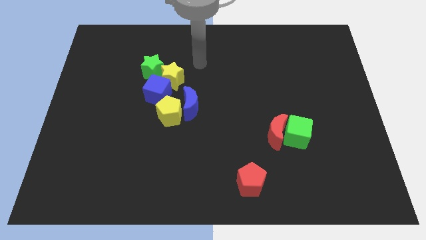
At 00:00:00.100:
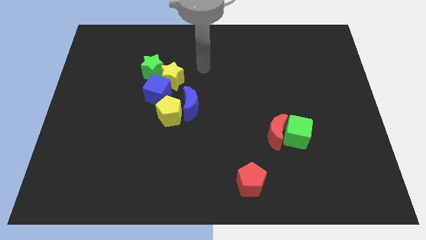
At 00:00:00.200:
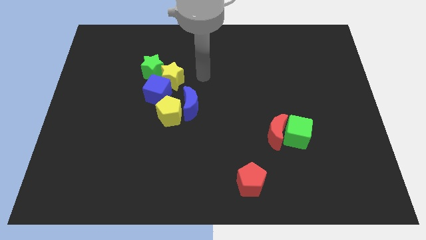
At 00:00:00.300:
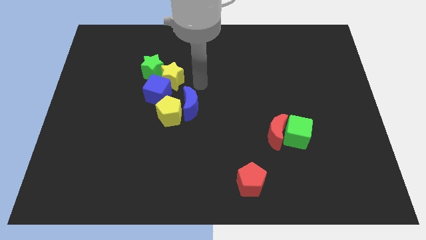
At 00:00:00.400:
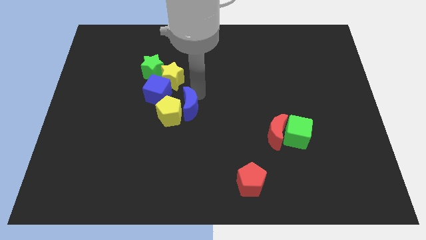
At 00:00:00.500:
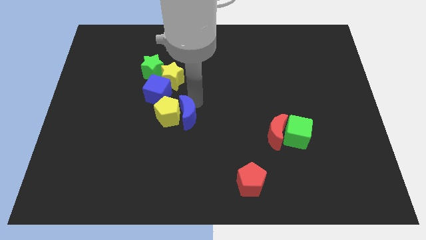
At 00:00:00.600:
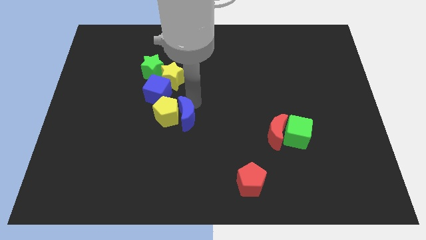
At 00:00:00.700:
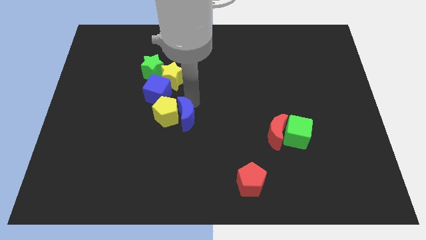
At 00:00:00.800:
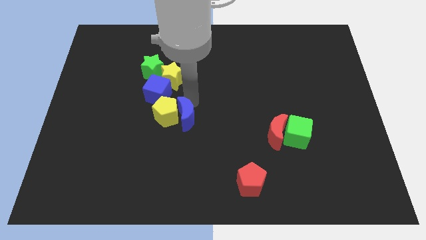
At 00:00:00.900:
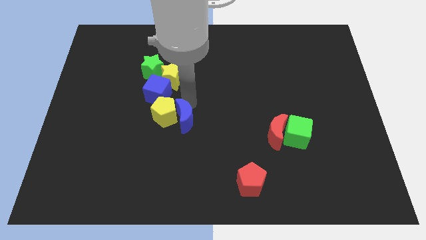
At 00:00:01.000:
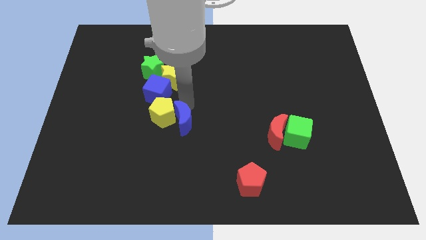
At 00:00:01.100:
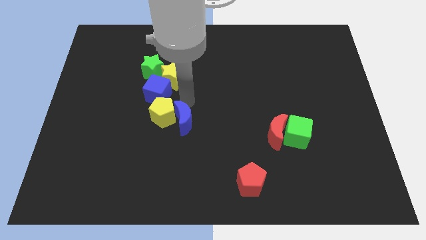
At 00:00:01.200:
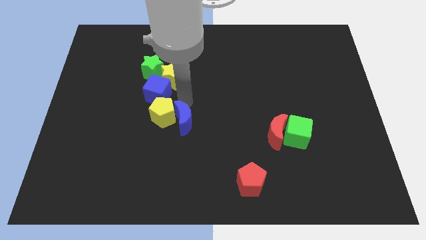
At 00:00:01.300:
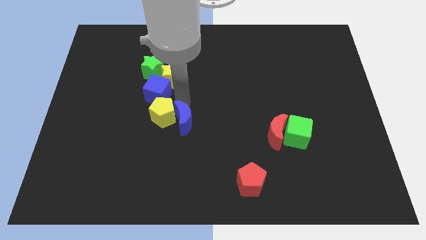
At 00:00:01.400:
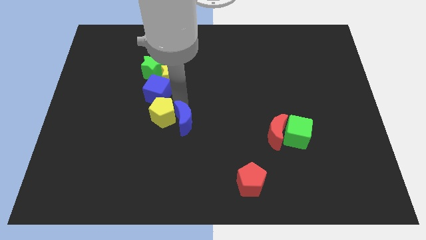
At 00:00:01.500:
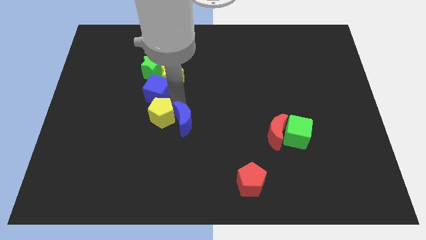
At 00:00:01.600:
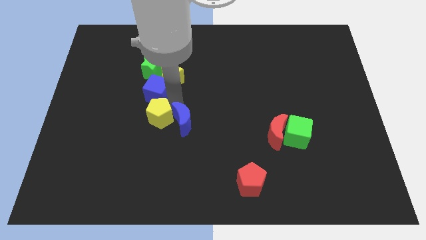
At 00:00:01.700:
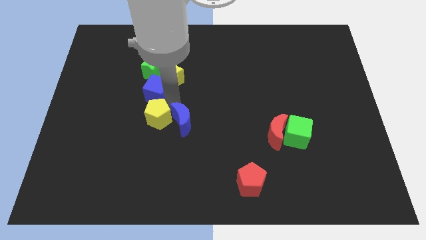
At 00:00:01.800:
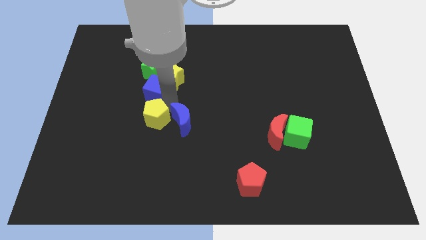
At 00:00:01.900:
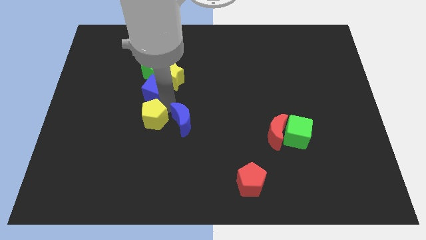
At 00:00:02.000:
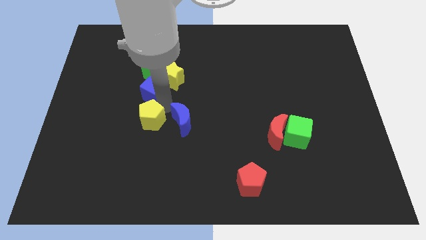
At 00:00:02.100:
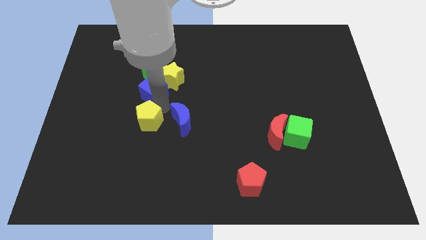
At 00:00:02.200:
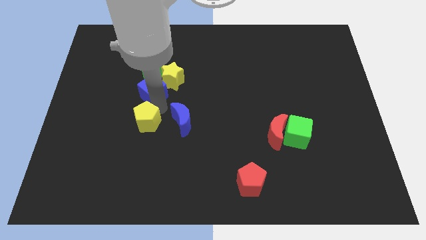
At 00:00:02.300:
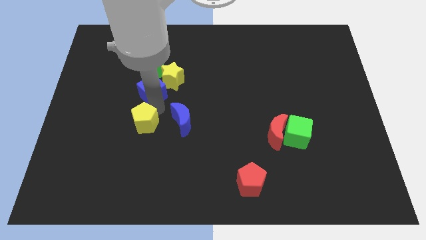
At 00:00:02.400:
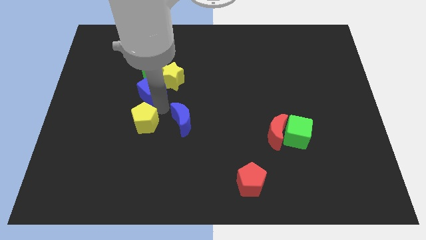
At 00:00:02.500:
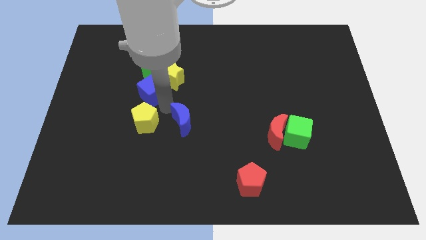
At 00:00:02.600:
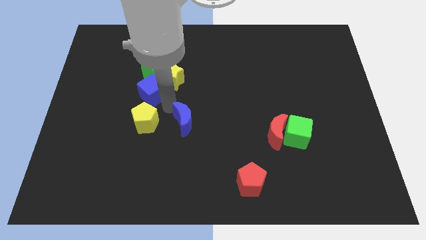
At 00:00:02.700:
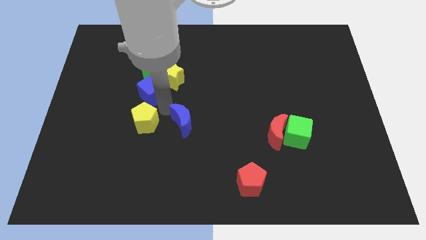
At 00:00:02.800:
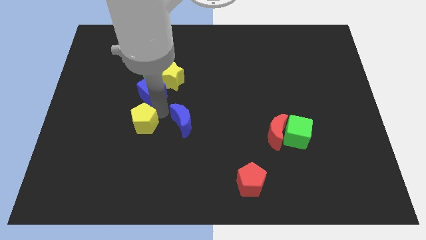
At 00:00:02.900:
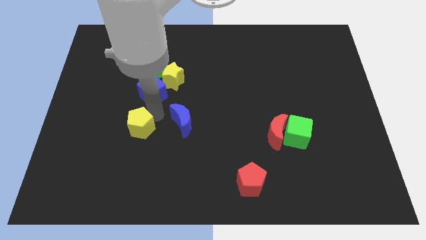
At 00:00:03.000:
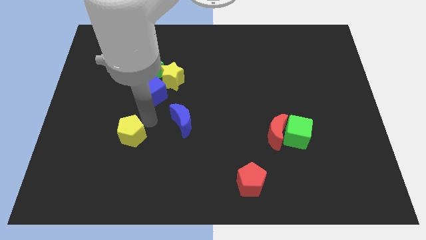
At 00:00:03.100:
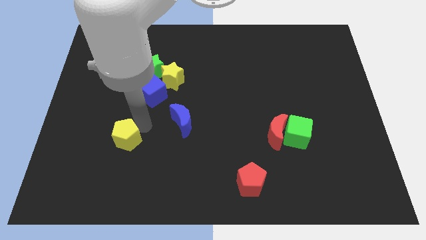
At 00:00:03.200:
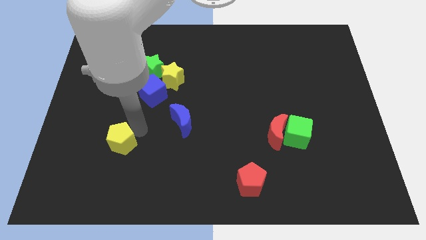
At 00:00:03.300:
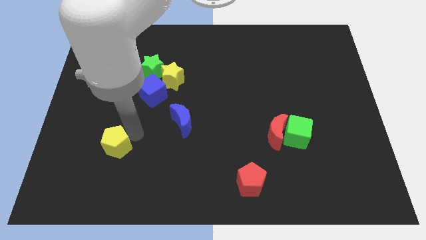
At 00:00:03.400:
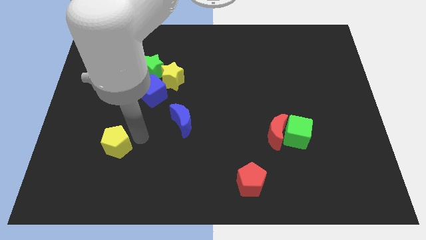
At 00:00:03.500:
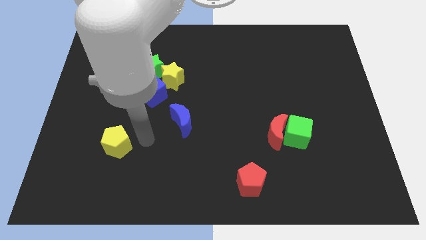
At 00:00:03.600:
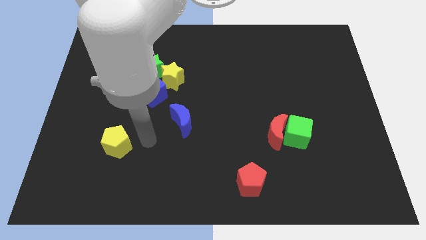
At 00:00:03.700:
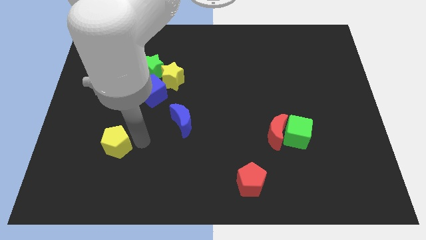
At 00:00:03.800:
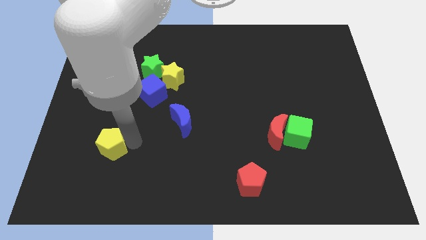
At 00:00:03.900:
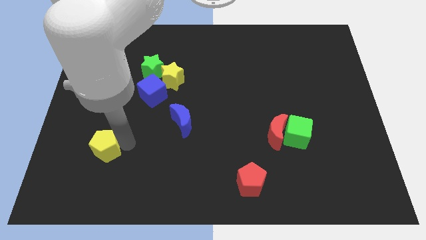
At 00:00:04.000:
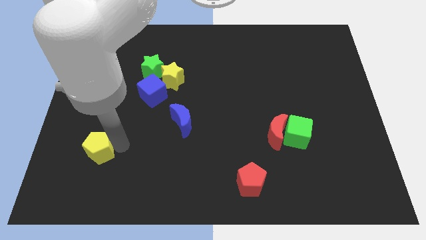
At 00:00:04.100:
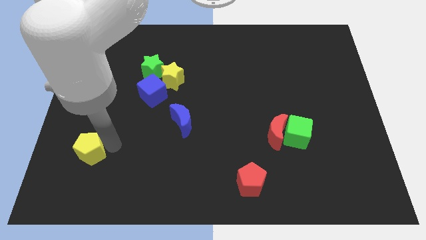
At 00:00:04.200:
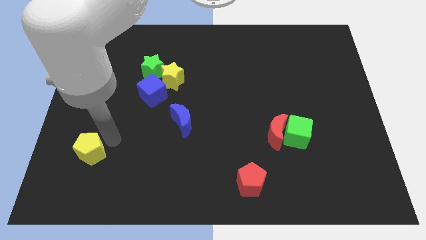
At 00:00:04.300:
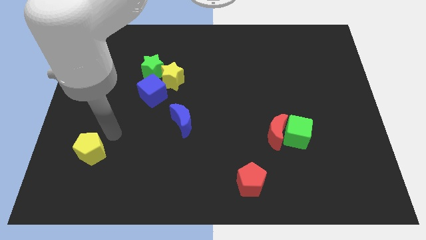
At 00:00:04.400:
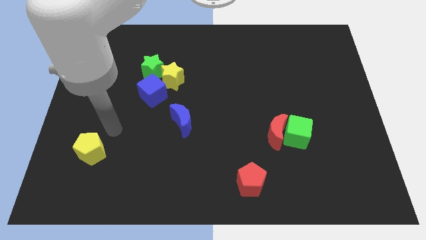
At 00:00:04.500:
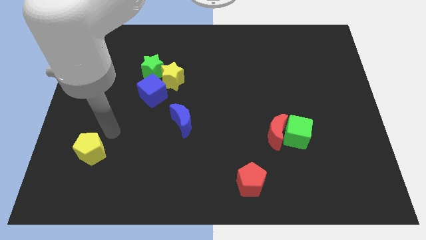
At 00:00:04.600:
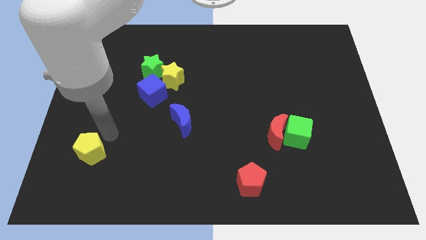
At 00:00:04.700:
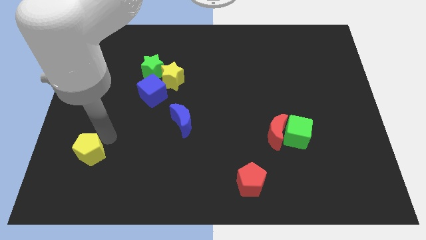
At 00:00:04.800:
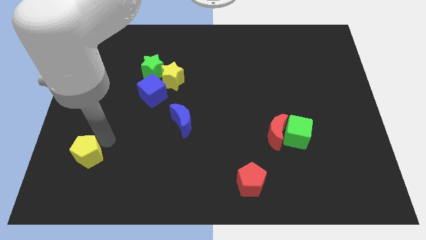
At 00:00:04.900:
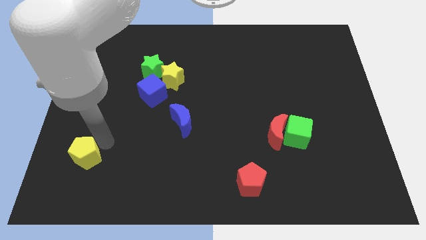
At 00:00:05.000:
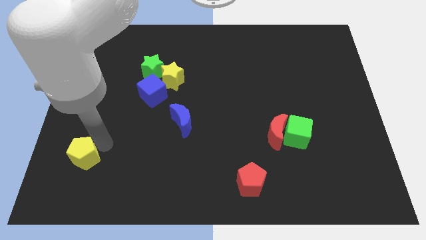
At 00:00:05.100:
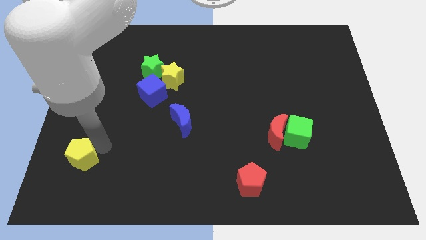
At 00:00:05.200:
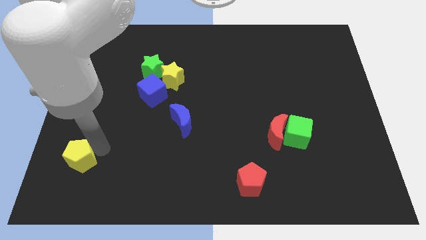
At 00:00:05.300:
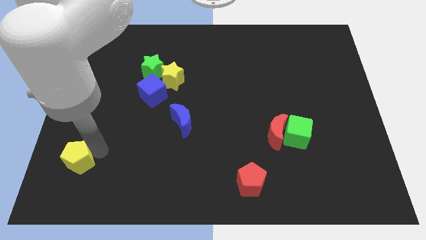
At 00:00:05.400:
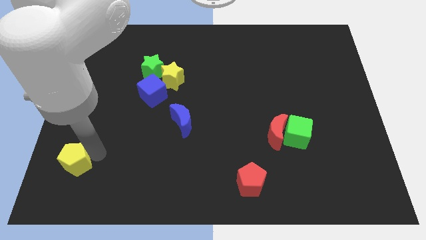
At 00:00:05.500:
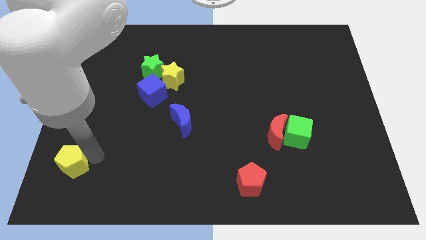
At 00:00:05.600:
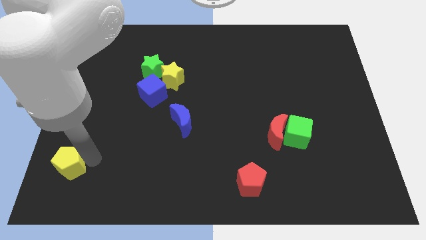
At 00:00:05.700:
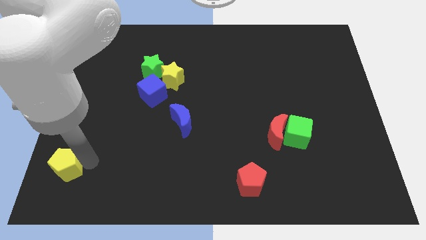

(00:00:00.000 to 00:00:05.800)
move the yellow pentagon to the bottom left corner

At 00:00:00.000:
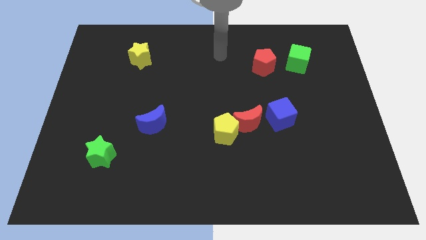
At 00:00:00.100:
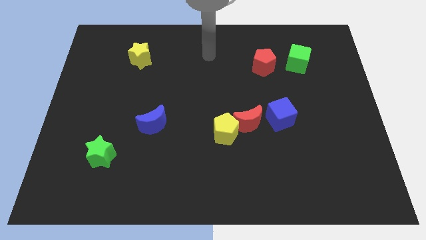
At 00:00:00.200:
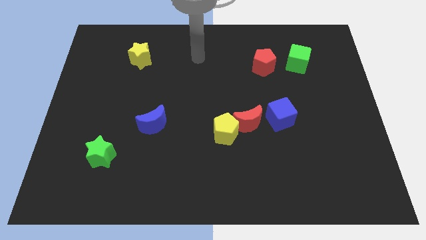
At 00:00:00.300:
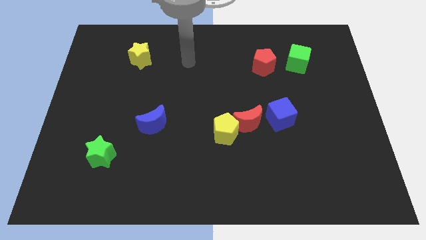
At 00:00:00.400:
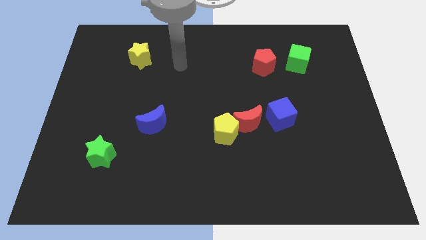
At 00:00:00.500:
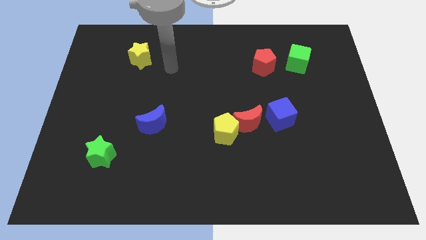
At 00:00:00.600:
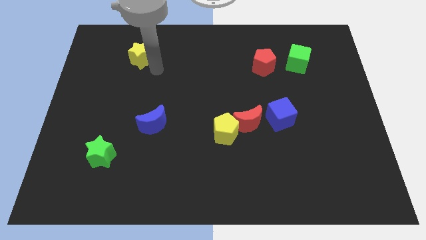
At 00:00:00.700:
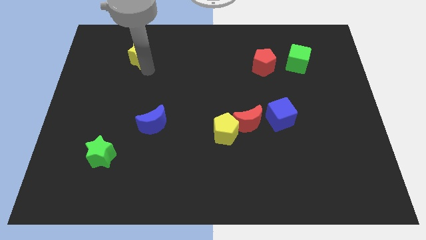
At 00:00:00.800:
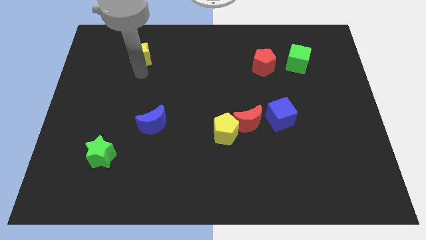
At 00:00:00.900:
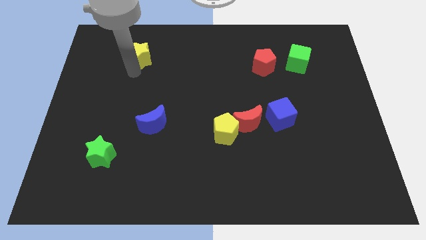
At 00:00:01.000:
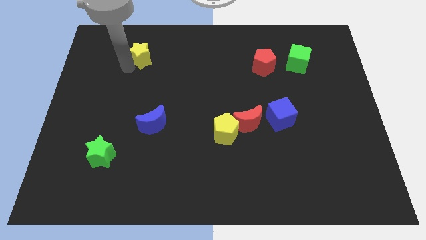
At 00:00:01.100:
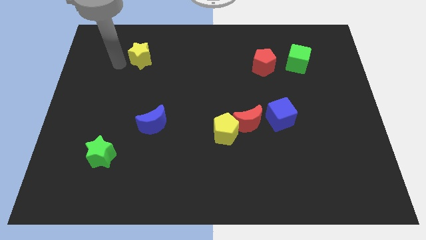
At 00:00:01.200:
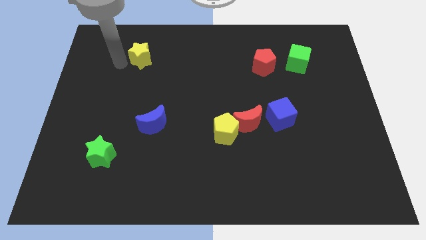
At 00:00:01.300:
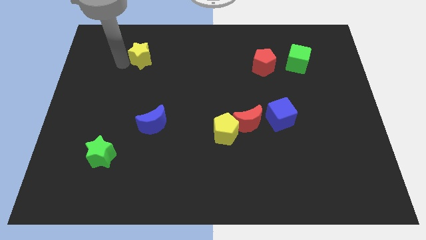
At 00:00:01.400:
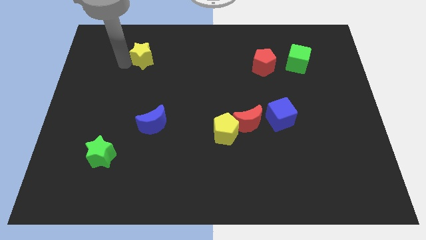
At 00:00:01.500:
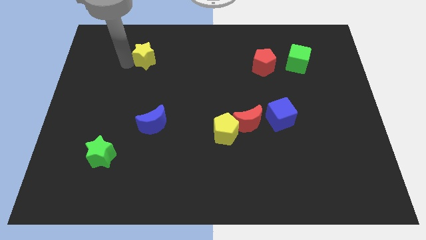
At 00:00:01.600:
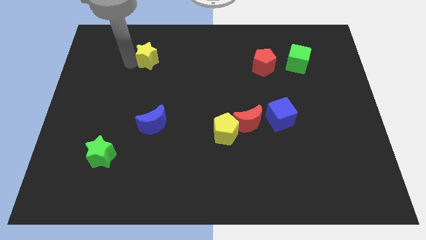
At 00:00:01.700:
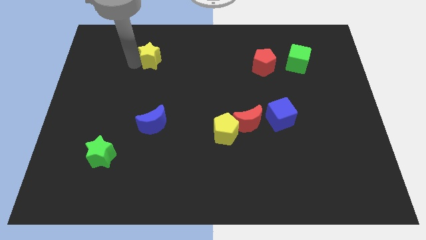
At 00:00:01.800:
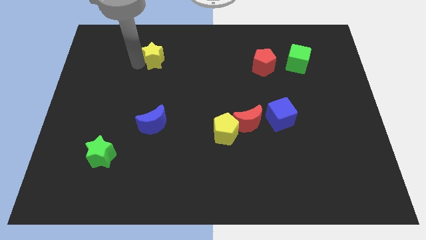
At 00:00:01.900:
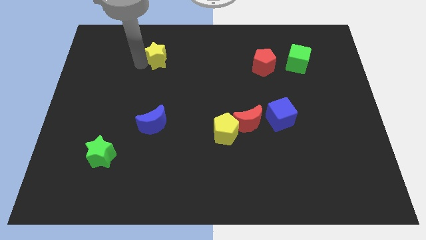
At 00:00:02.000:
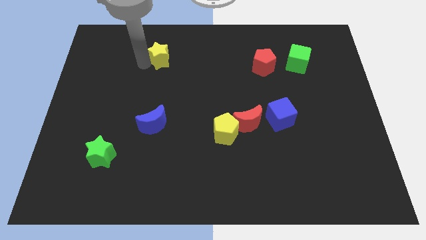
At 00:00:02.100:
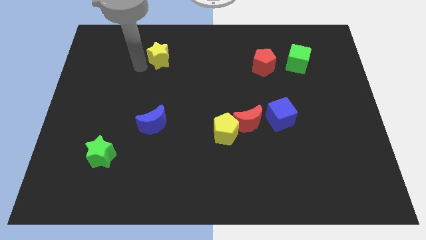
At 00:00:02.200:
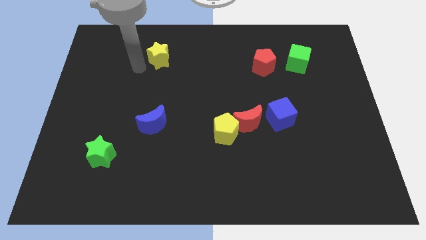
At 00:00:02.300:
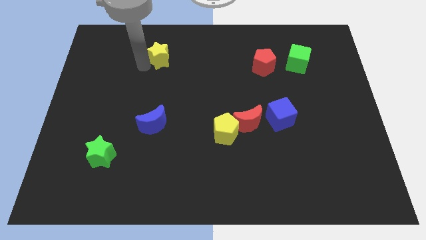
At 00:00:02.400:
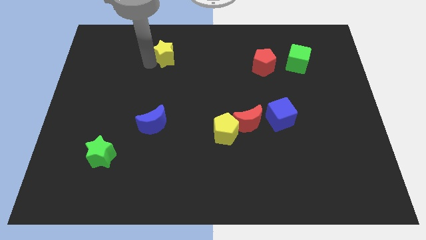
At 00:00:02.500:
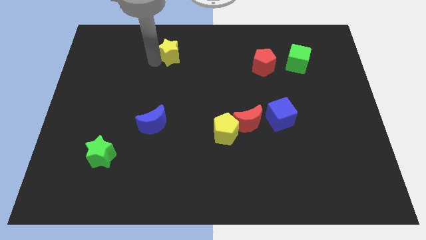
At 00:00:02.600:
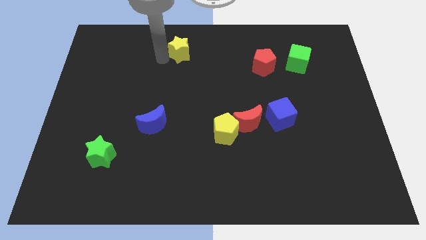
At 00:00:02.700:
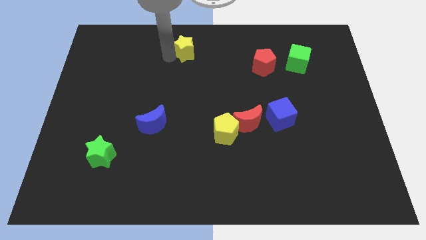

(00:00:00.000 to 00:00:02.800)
put the yellow star to the top
